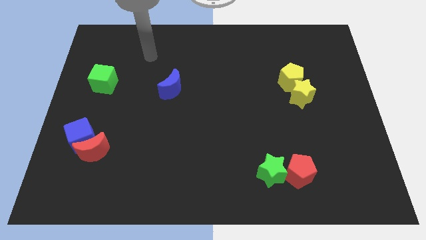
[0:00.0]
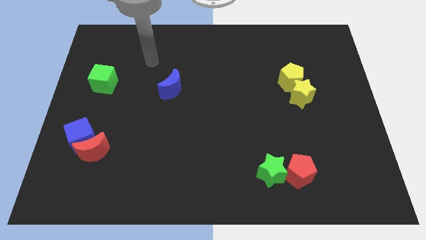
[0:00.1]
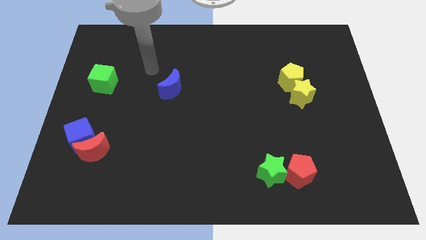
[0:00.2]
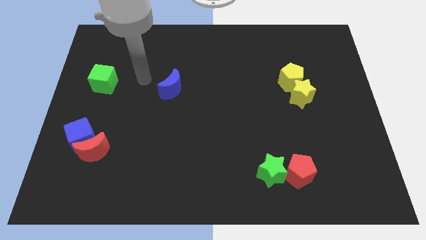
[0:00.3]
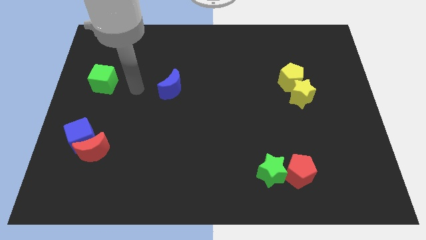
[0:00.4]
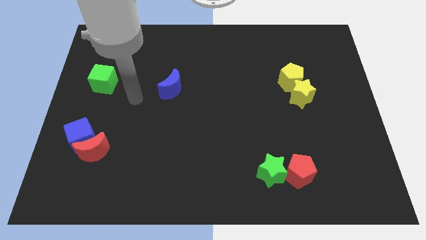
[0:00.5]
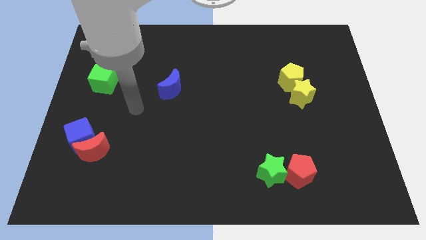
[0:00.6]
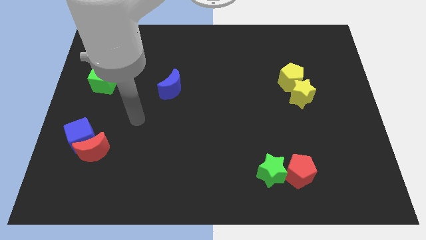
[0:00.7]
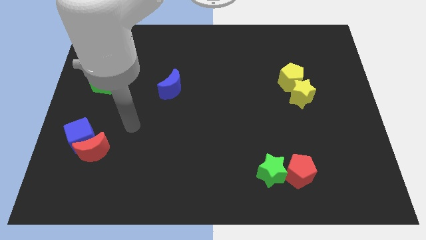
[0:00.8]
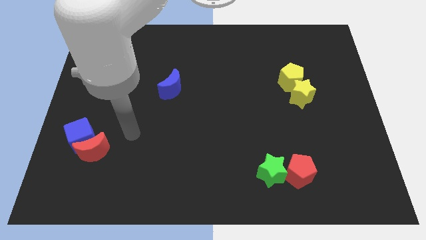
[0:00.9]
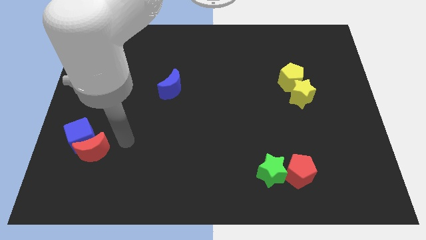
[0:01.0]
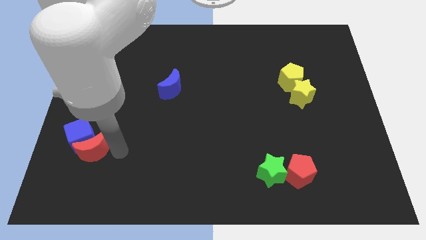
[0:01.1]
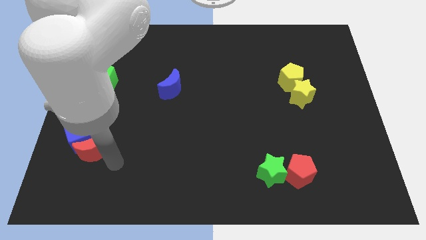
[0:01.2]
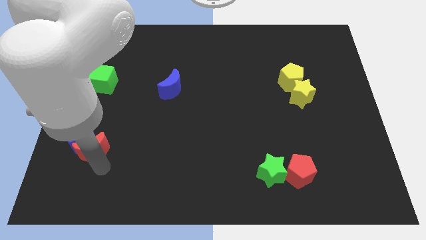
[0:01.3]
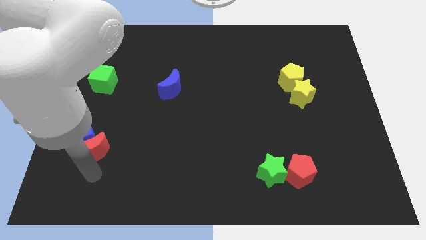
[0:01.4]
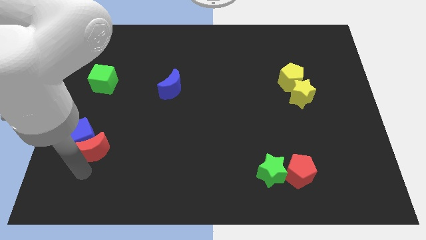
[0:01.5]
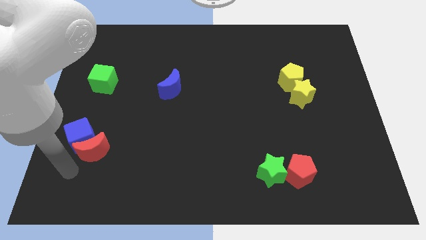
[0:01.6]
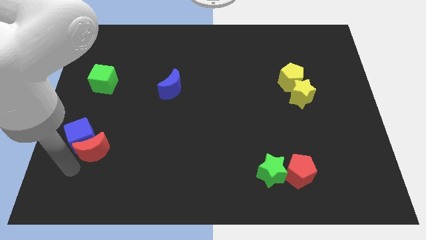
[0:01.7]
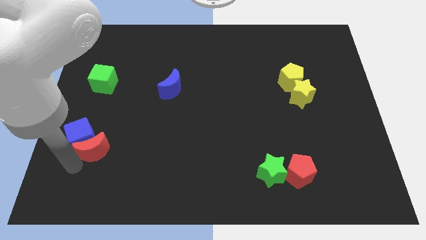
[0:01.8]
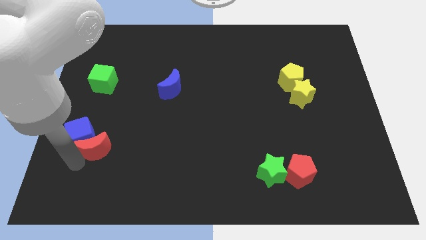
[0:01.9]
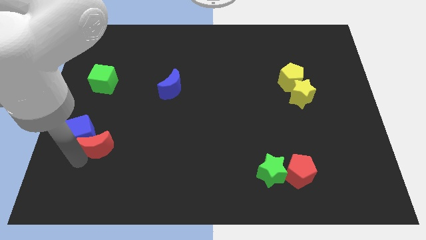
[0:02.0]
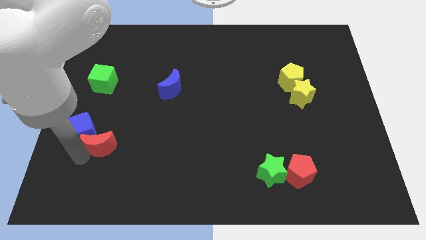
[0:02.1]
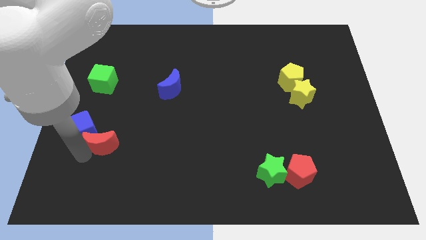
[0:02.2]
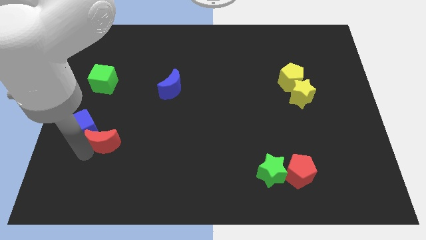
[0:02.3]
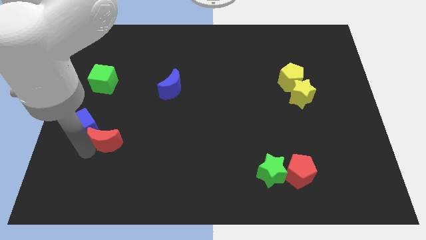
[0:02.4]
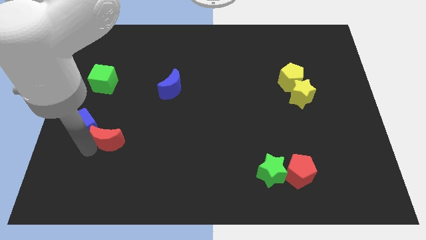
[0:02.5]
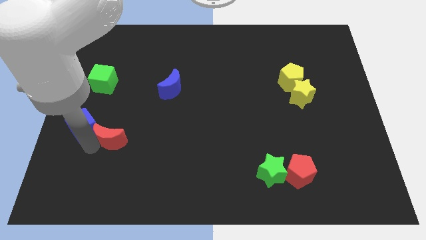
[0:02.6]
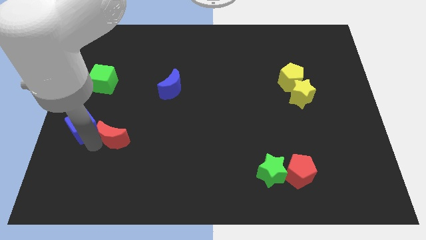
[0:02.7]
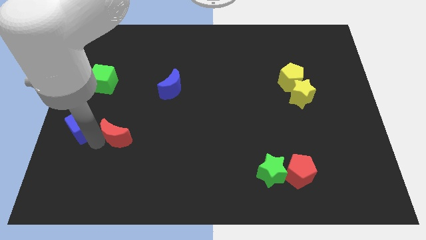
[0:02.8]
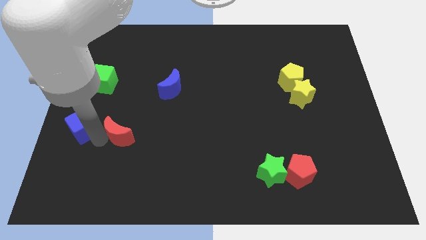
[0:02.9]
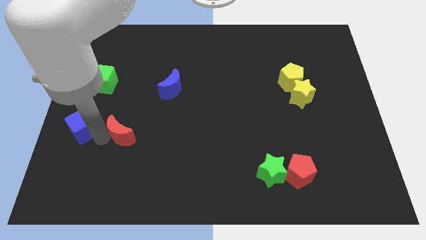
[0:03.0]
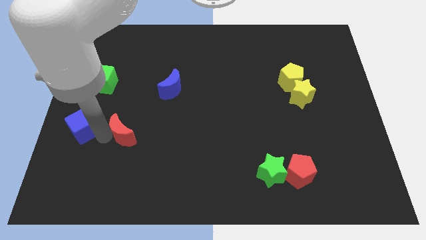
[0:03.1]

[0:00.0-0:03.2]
slightly slide the red moon up and right diagonally

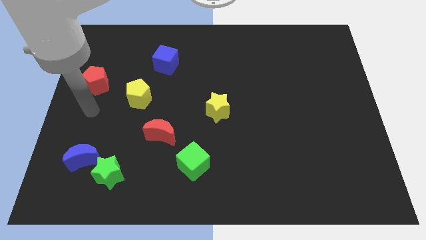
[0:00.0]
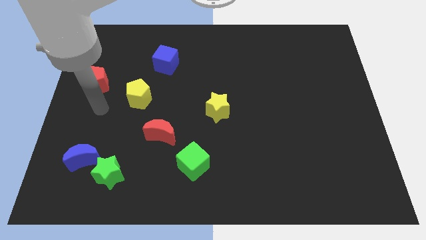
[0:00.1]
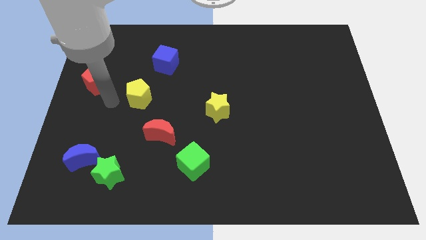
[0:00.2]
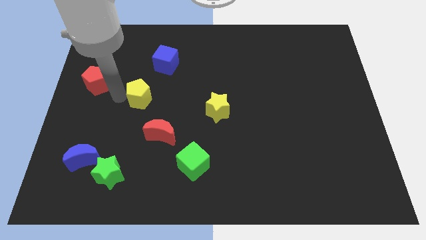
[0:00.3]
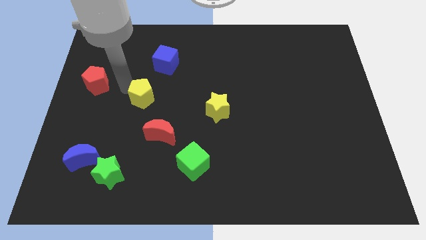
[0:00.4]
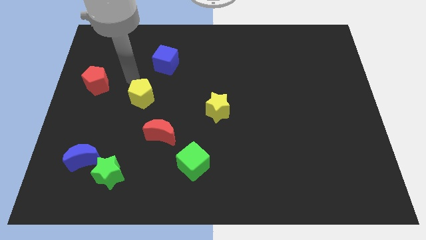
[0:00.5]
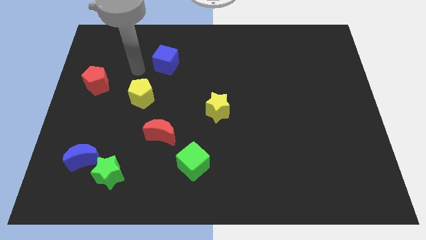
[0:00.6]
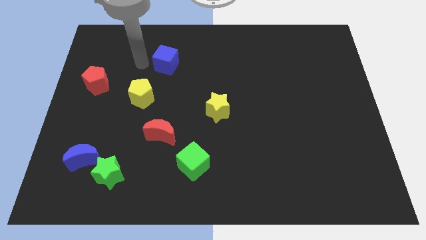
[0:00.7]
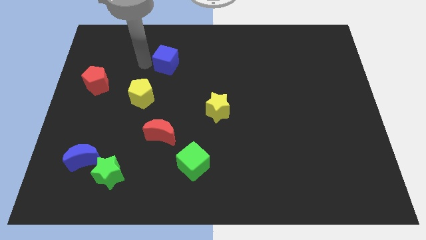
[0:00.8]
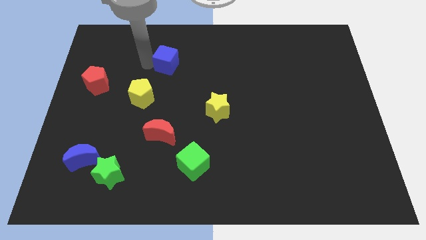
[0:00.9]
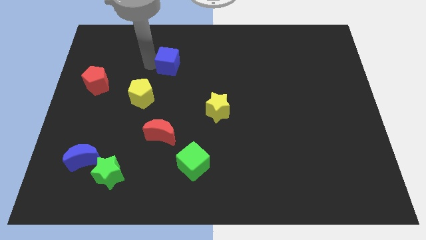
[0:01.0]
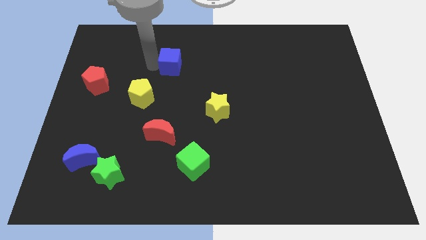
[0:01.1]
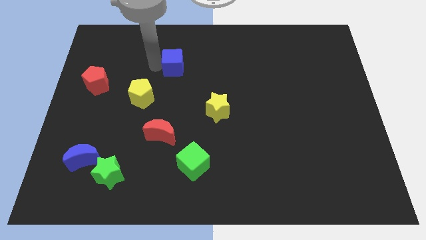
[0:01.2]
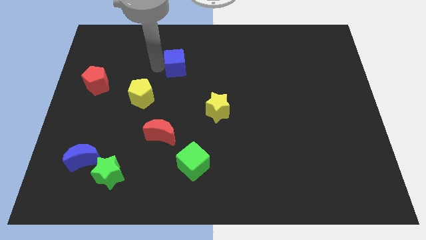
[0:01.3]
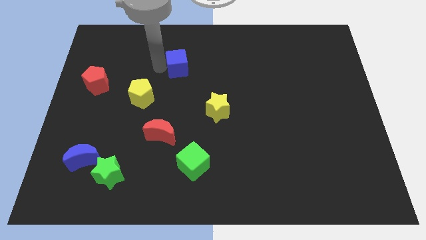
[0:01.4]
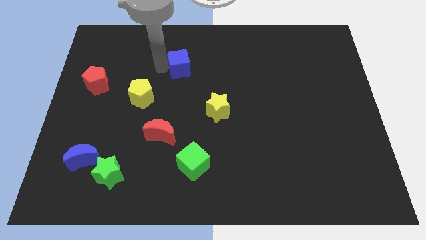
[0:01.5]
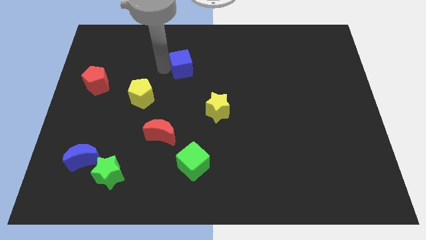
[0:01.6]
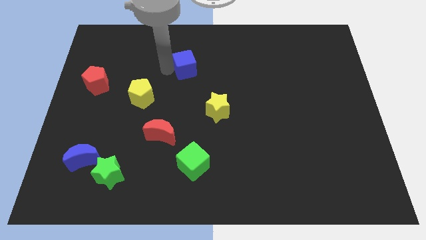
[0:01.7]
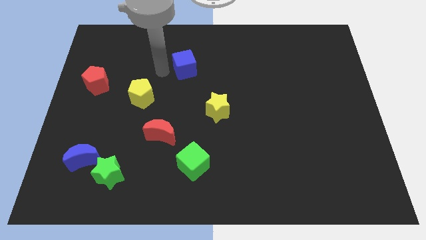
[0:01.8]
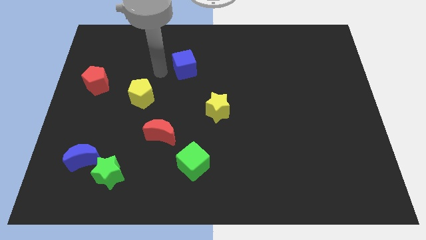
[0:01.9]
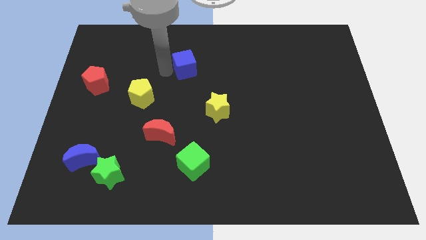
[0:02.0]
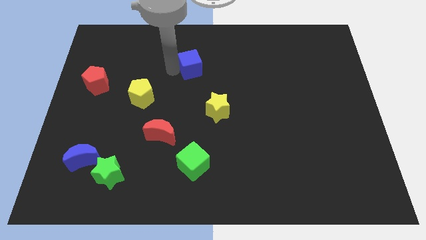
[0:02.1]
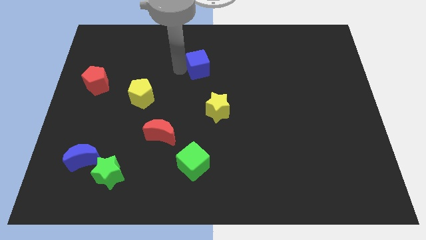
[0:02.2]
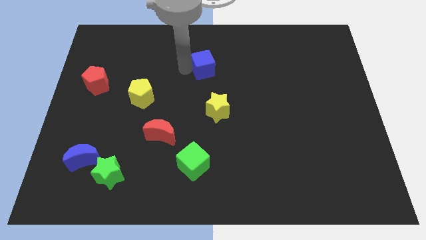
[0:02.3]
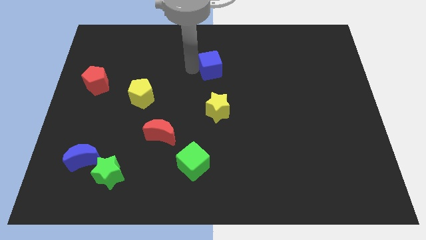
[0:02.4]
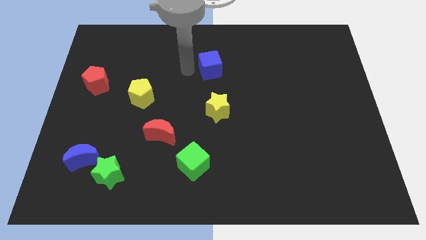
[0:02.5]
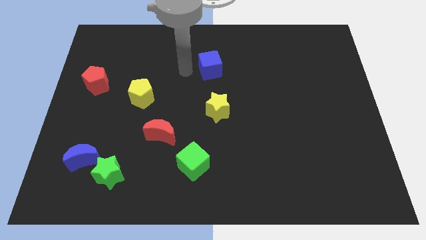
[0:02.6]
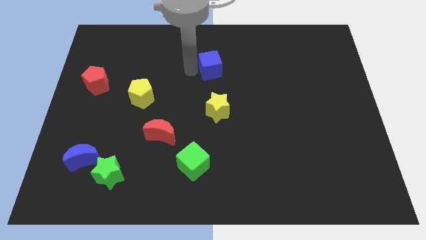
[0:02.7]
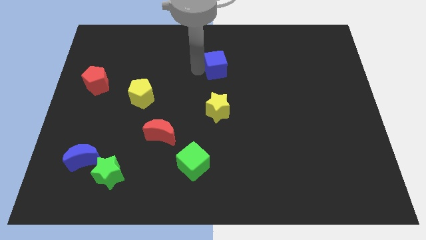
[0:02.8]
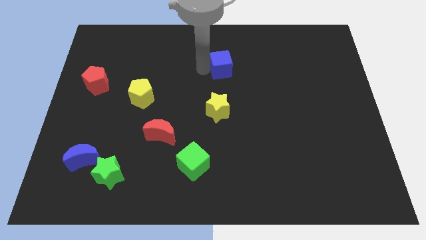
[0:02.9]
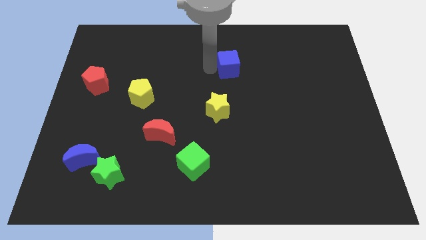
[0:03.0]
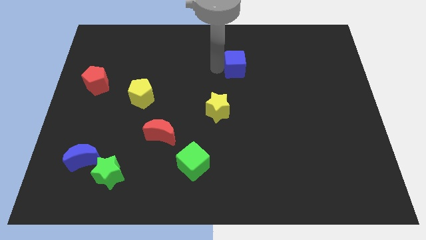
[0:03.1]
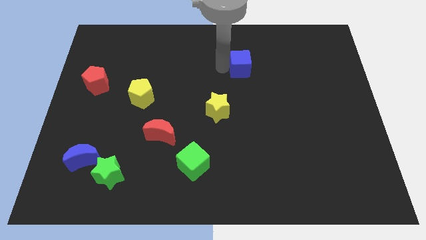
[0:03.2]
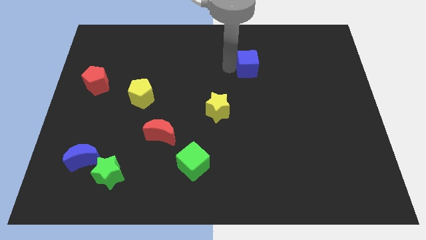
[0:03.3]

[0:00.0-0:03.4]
push the blue cube right

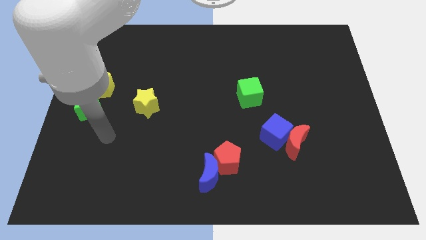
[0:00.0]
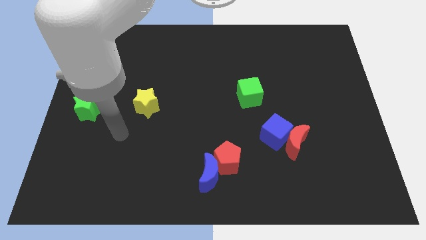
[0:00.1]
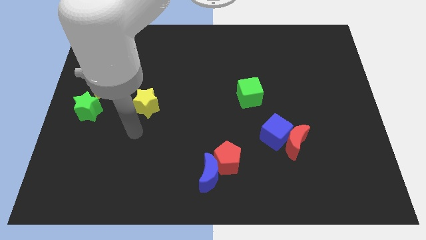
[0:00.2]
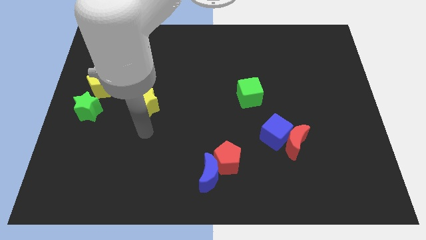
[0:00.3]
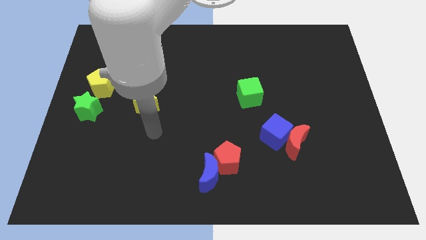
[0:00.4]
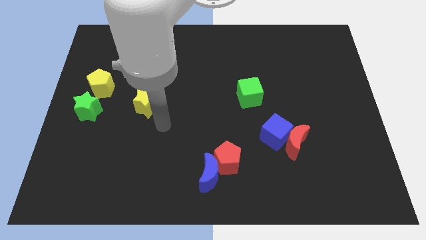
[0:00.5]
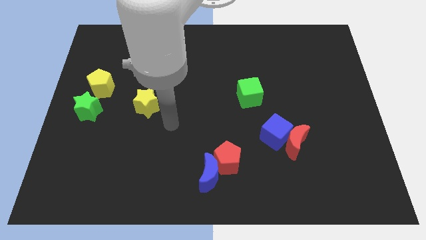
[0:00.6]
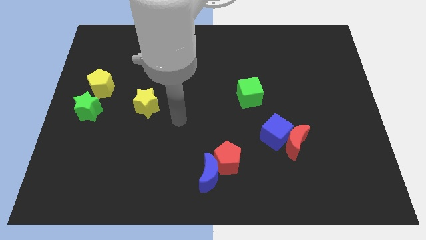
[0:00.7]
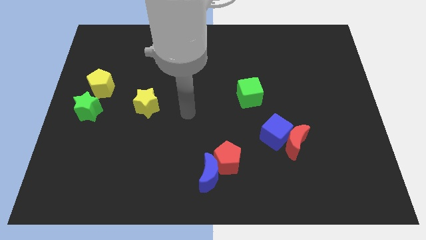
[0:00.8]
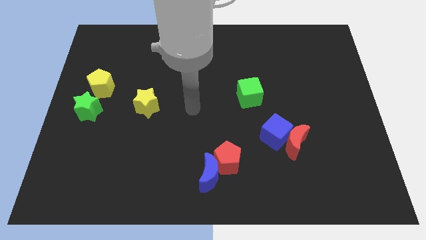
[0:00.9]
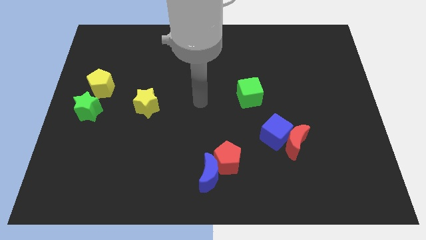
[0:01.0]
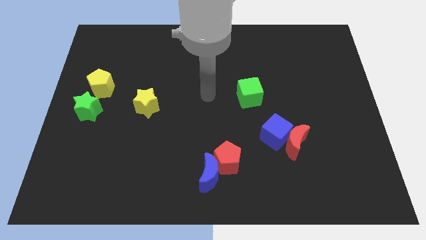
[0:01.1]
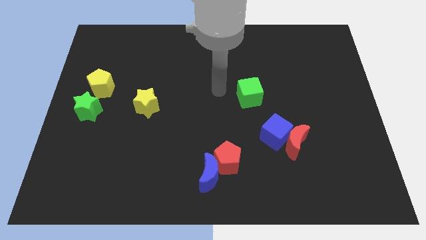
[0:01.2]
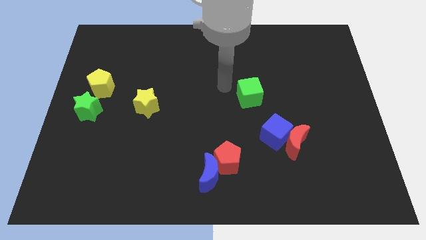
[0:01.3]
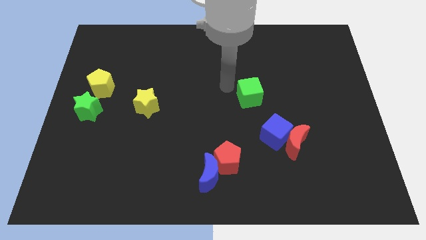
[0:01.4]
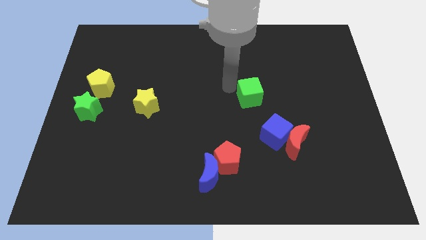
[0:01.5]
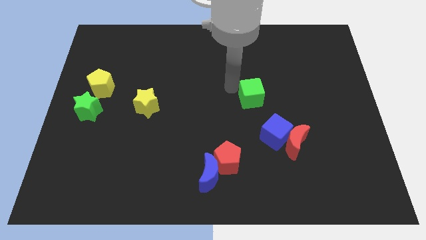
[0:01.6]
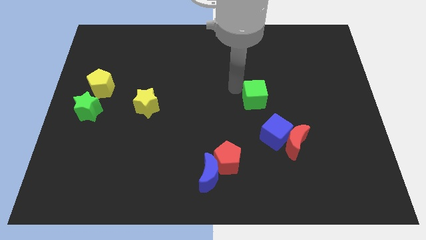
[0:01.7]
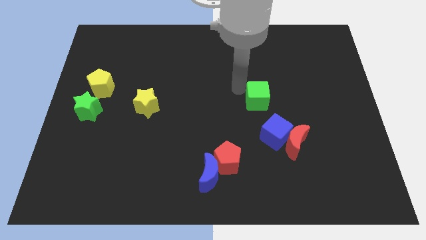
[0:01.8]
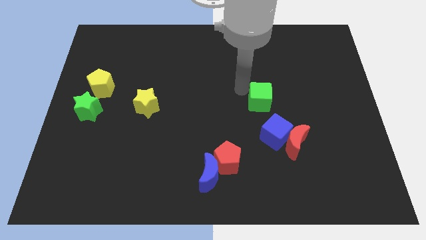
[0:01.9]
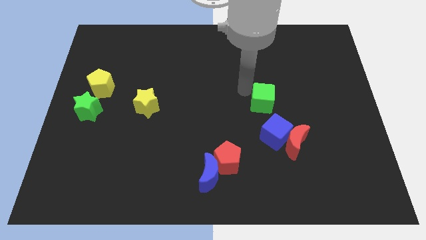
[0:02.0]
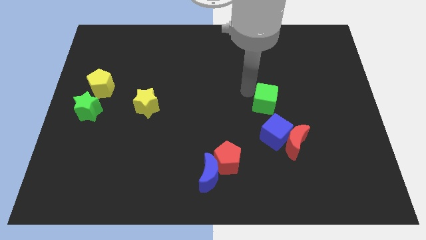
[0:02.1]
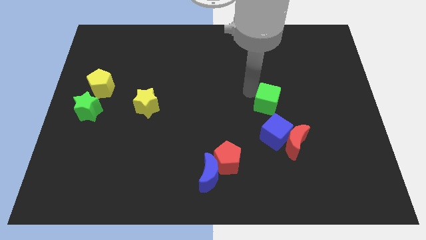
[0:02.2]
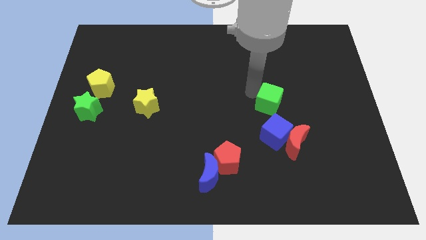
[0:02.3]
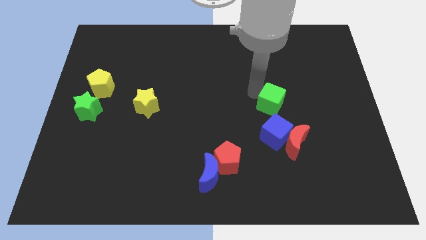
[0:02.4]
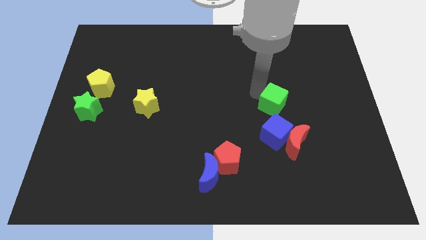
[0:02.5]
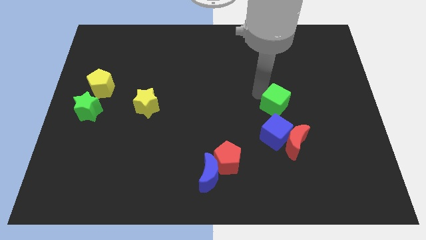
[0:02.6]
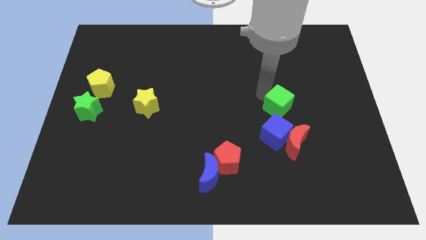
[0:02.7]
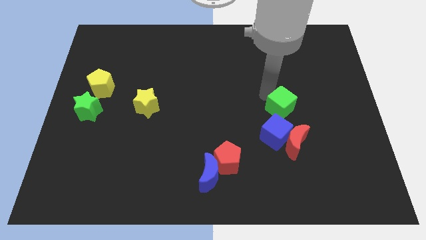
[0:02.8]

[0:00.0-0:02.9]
move the green cube diagonally down and to the right a bit
